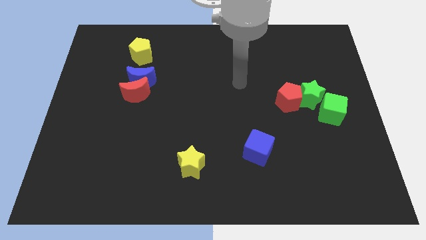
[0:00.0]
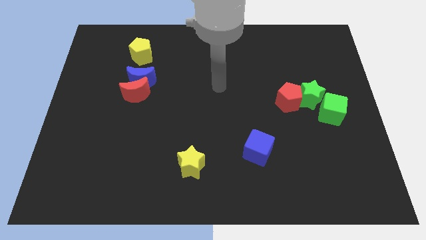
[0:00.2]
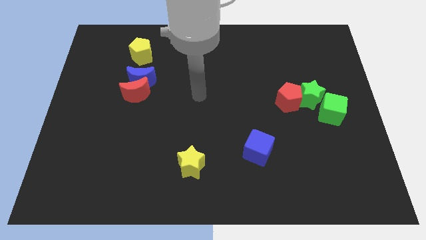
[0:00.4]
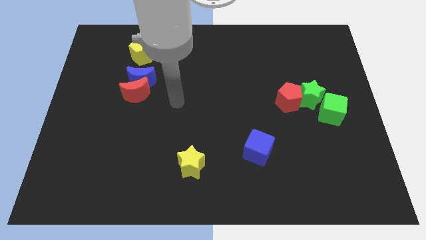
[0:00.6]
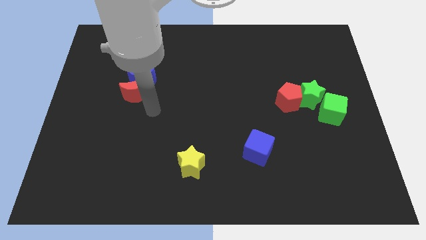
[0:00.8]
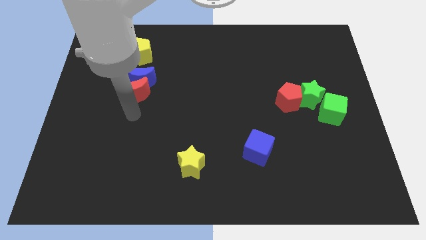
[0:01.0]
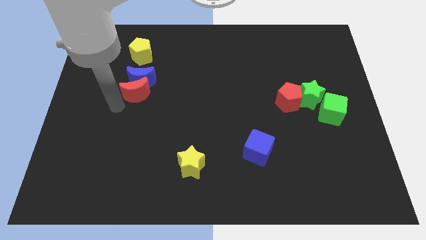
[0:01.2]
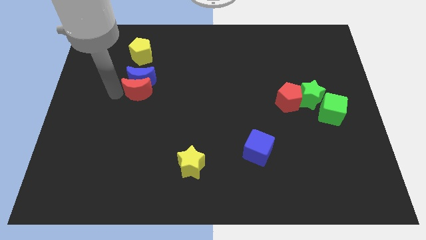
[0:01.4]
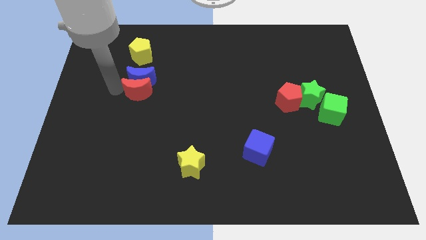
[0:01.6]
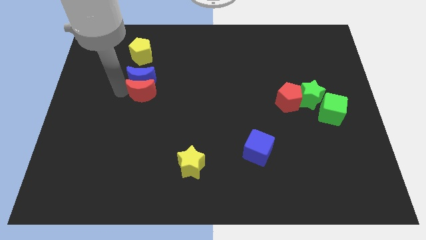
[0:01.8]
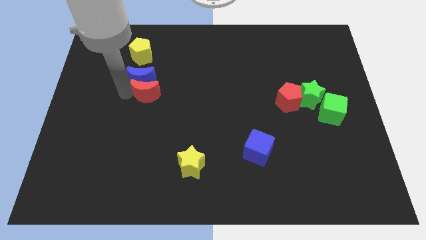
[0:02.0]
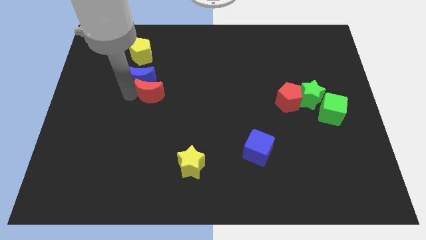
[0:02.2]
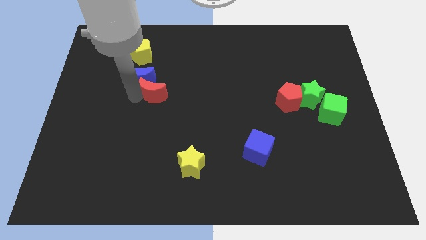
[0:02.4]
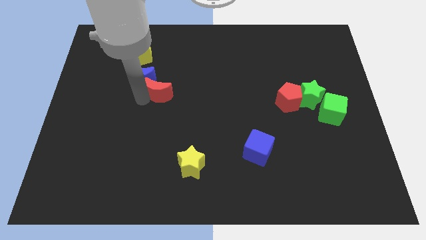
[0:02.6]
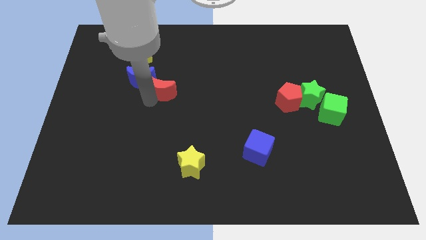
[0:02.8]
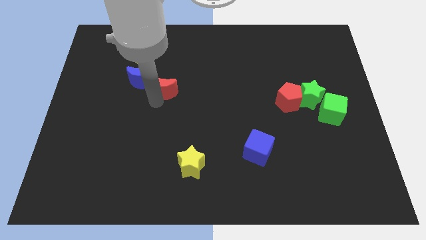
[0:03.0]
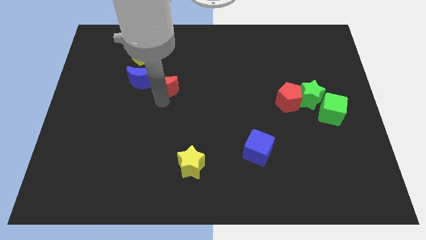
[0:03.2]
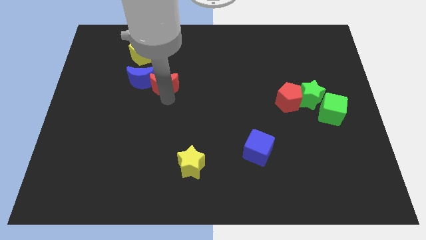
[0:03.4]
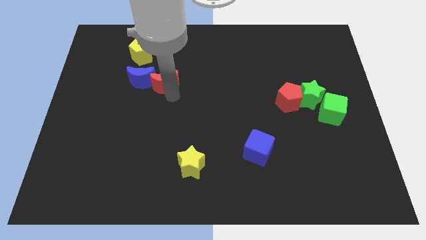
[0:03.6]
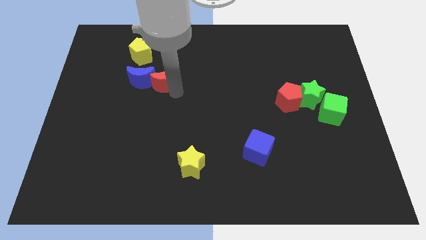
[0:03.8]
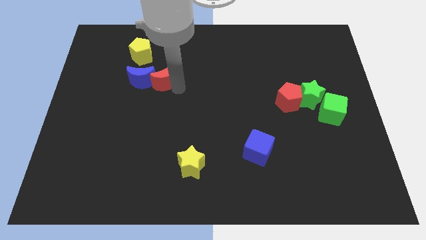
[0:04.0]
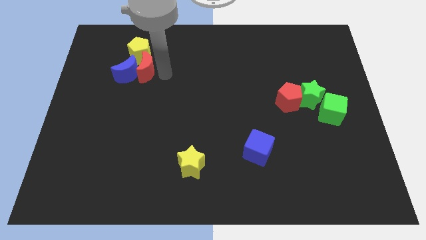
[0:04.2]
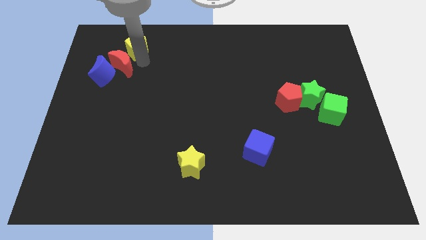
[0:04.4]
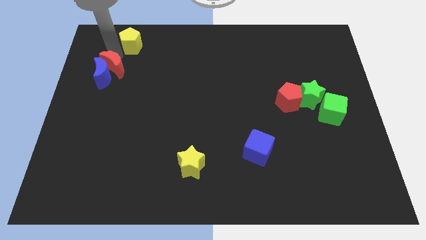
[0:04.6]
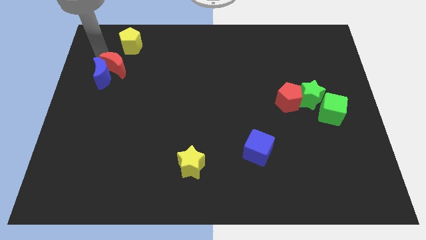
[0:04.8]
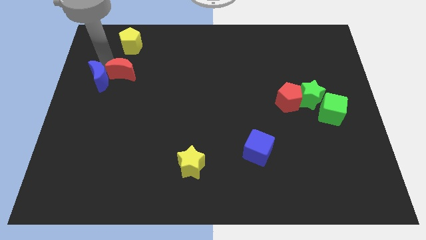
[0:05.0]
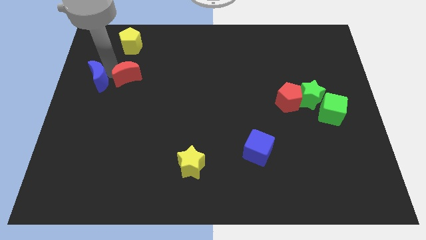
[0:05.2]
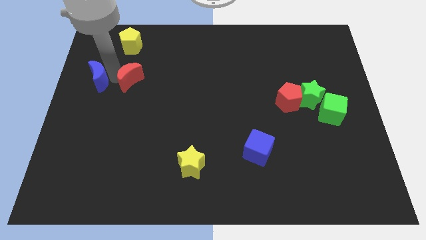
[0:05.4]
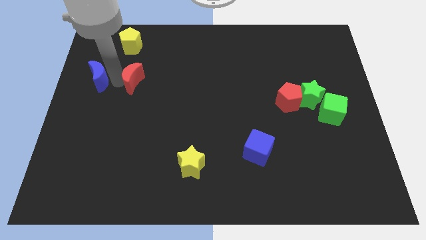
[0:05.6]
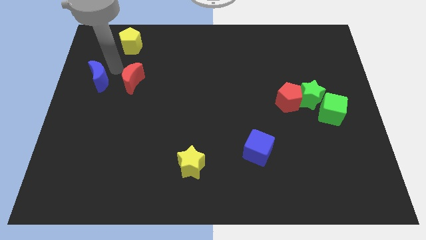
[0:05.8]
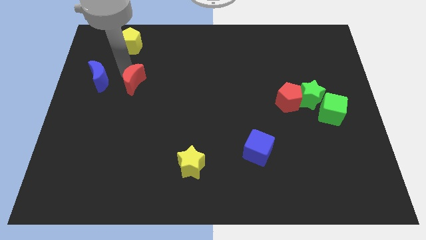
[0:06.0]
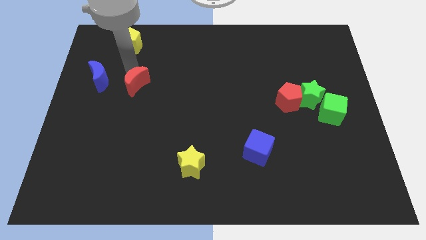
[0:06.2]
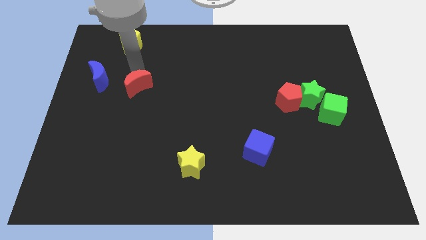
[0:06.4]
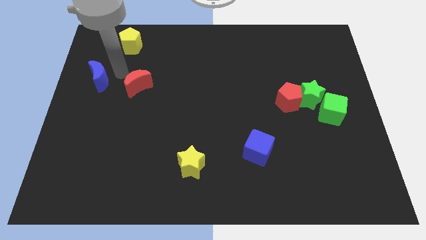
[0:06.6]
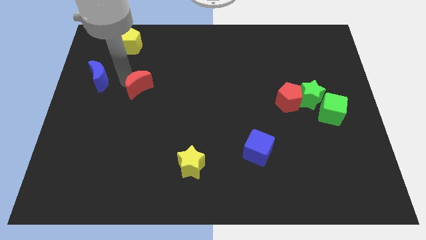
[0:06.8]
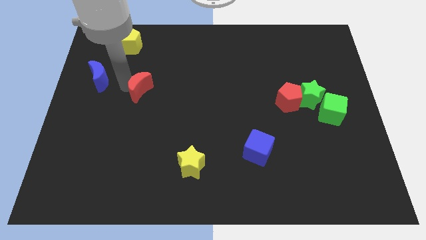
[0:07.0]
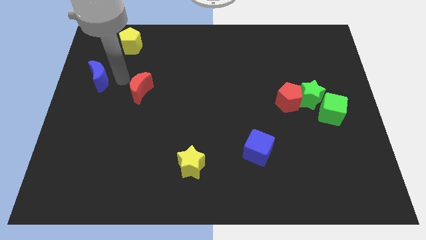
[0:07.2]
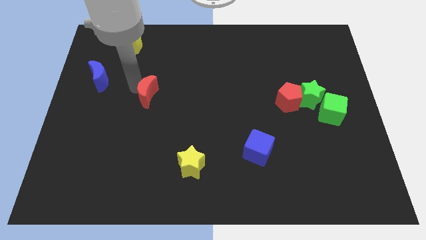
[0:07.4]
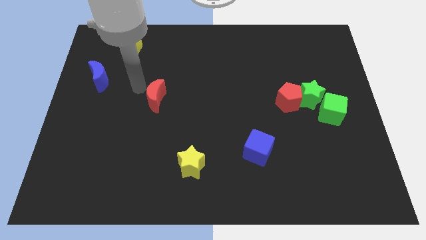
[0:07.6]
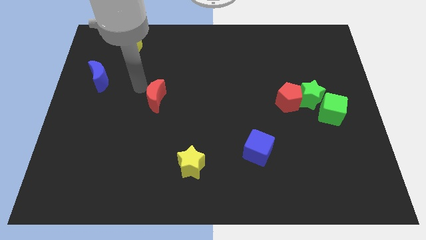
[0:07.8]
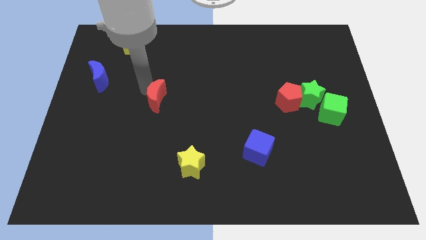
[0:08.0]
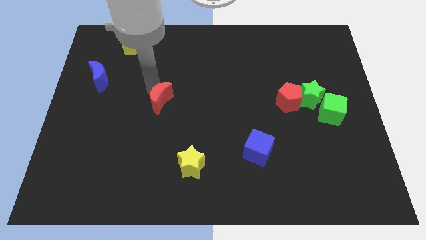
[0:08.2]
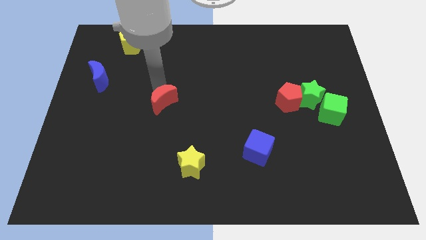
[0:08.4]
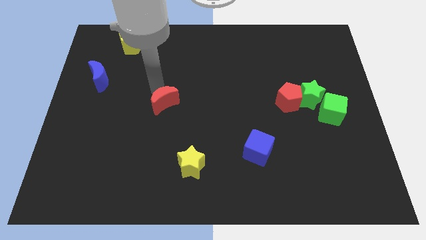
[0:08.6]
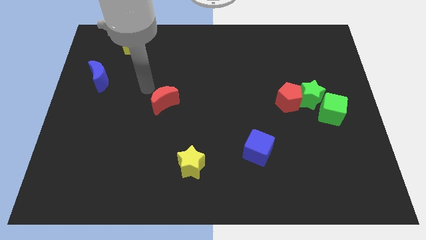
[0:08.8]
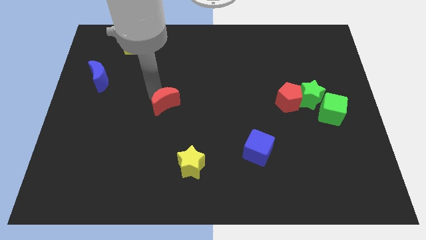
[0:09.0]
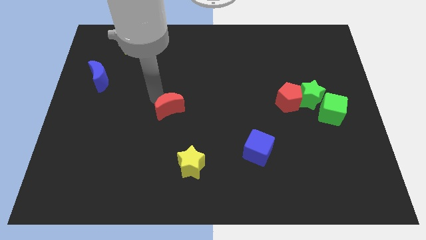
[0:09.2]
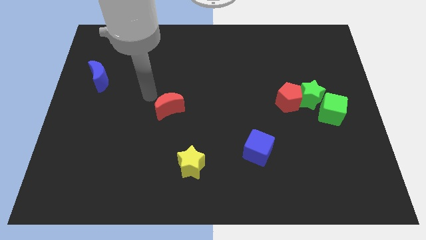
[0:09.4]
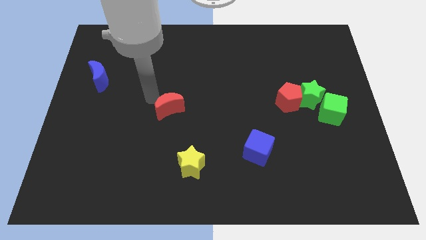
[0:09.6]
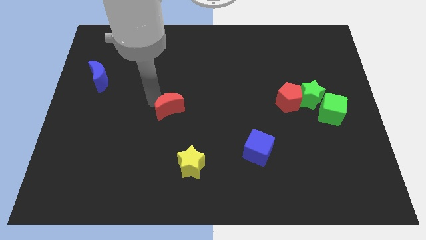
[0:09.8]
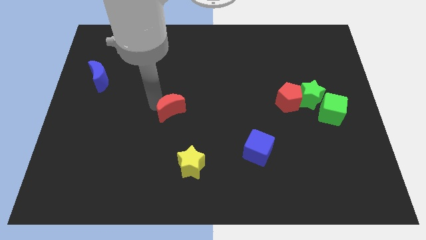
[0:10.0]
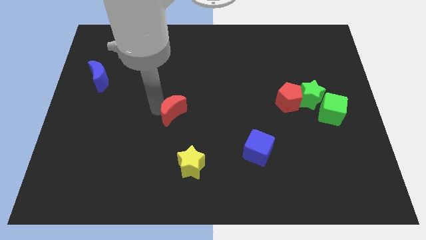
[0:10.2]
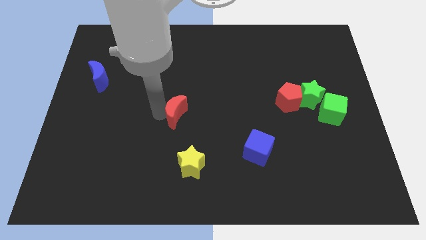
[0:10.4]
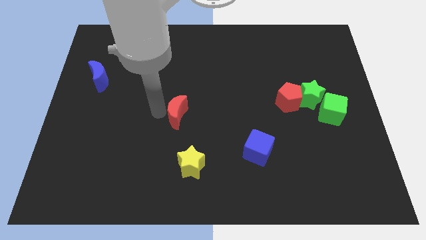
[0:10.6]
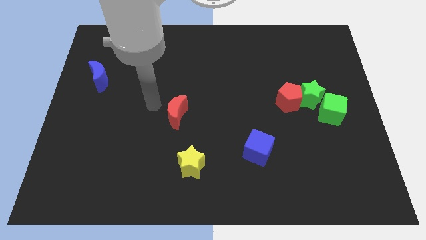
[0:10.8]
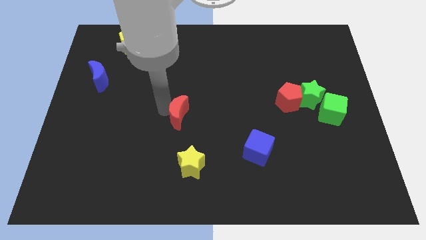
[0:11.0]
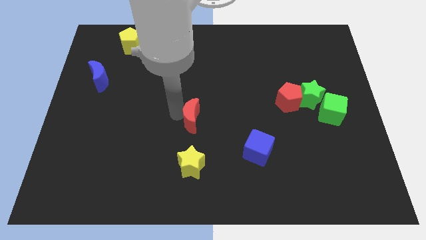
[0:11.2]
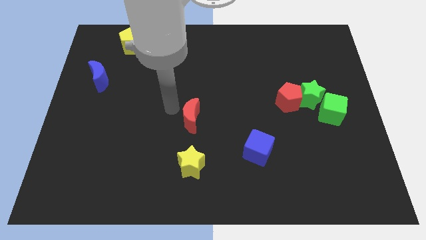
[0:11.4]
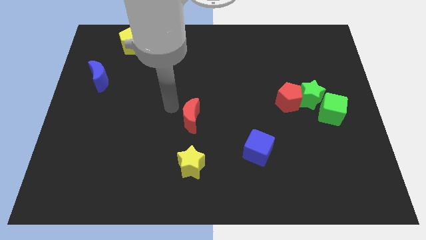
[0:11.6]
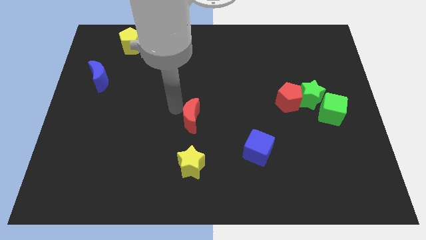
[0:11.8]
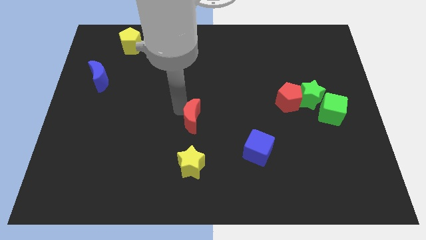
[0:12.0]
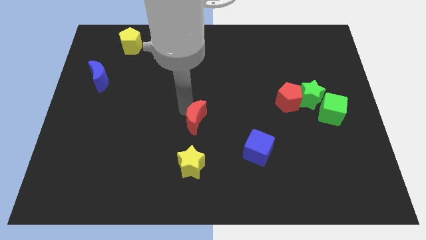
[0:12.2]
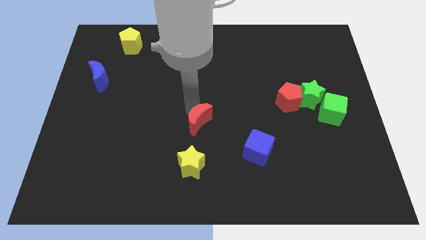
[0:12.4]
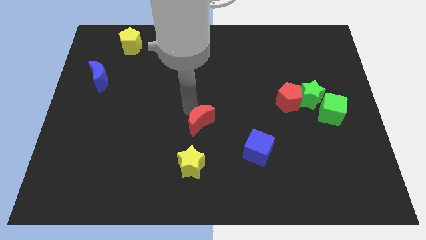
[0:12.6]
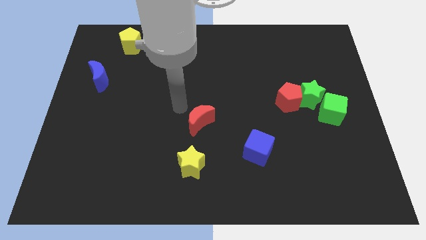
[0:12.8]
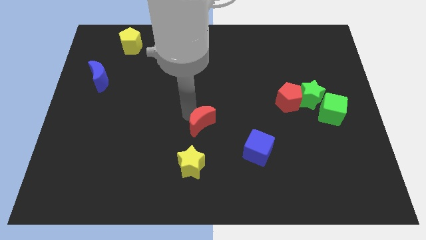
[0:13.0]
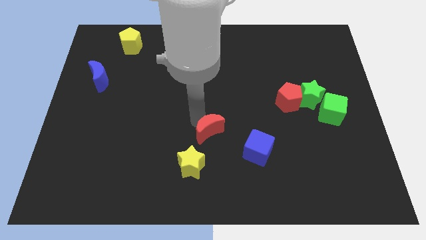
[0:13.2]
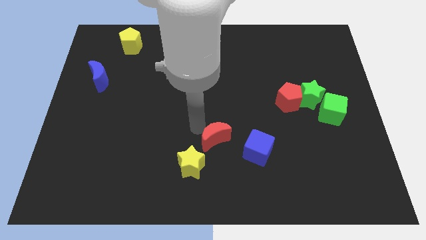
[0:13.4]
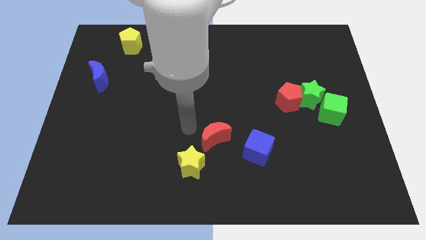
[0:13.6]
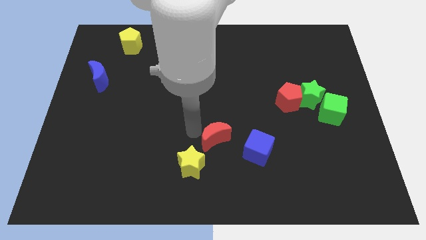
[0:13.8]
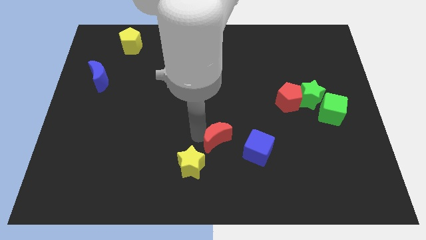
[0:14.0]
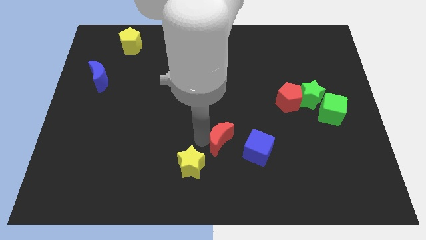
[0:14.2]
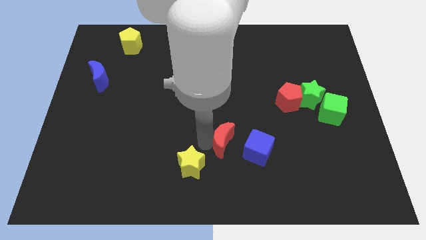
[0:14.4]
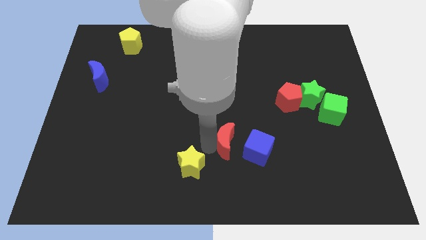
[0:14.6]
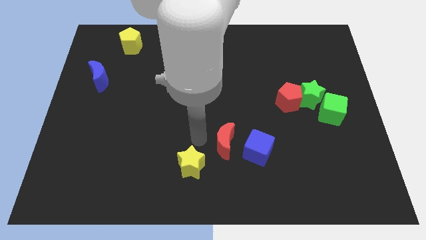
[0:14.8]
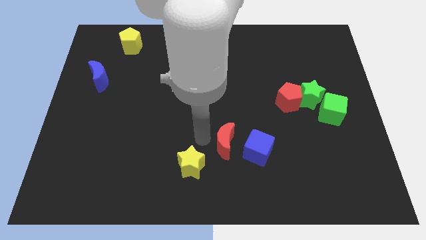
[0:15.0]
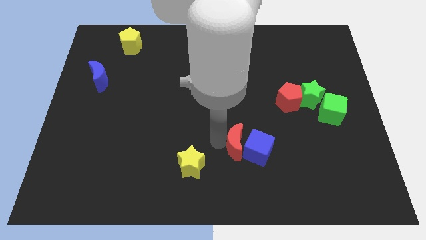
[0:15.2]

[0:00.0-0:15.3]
put the red moon close to the blue cube

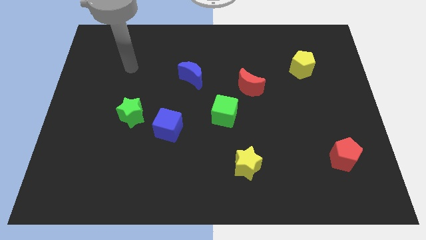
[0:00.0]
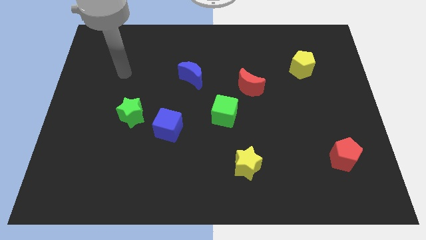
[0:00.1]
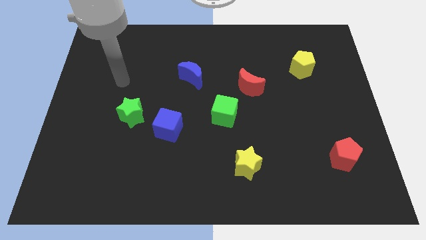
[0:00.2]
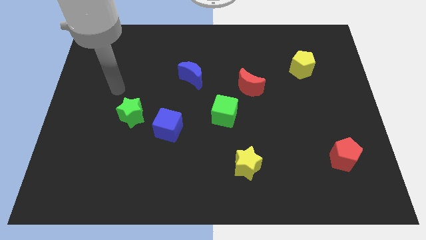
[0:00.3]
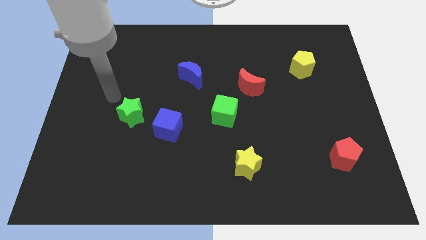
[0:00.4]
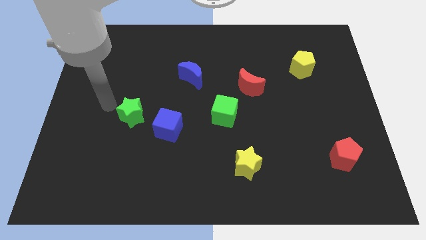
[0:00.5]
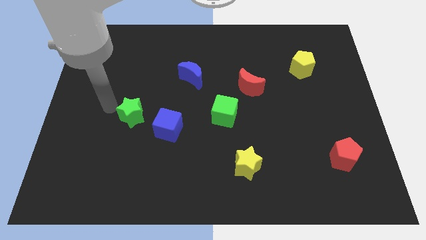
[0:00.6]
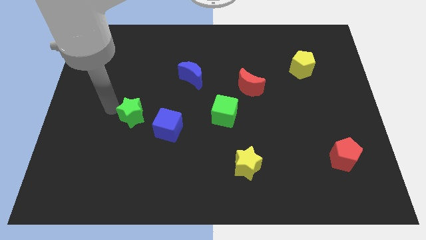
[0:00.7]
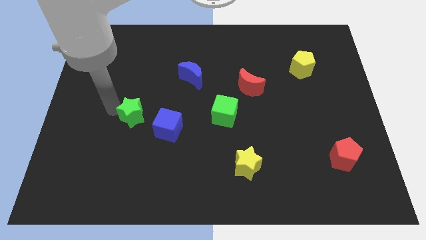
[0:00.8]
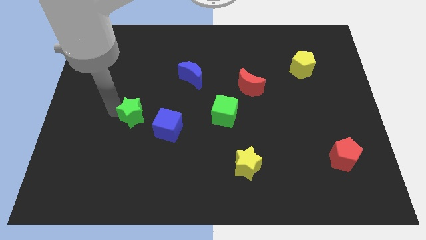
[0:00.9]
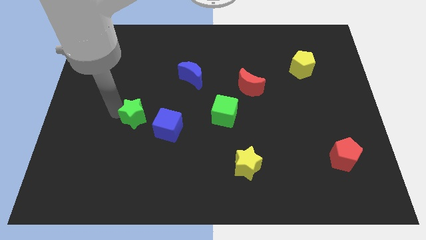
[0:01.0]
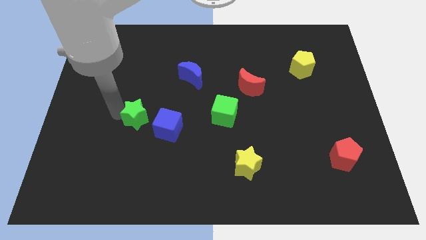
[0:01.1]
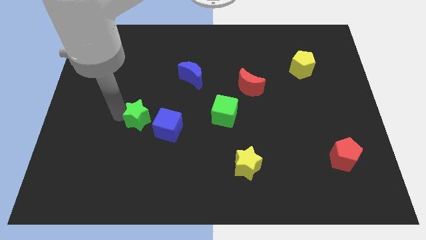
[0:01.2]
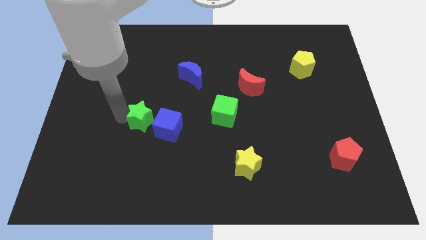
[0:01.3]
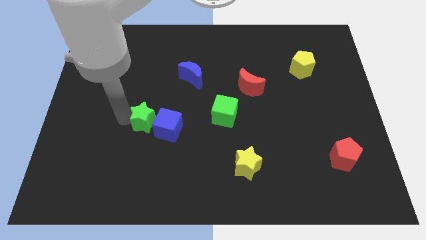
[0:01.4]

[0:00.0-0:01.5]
put the green star close to the blue cube
